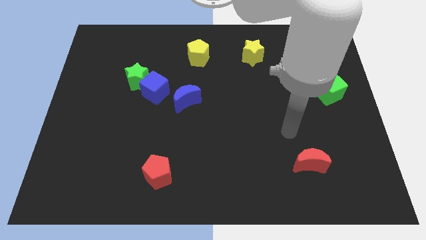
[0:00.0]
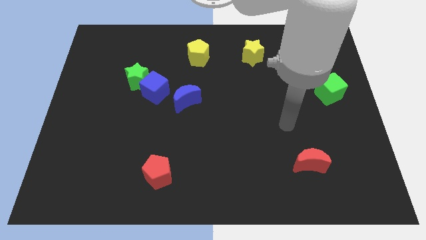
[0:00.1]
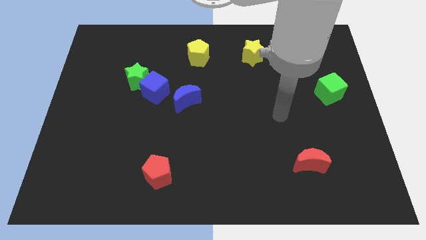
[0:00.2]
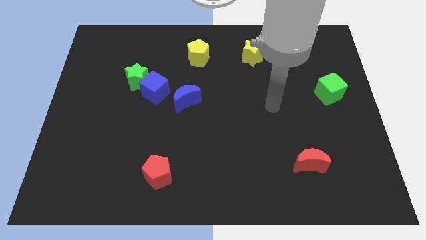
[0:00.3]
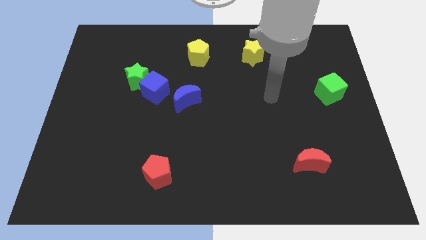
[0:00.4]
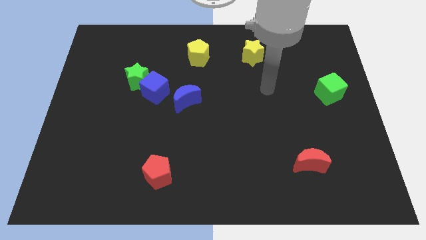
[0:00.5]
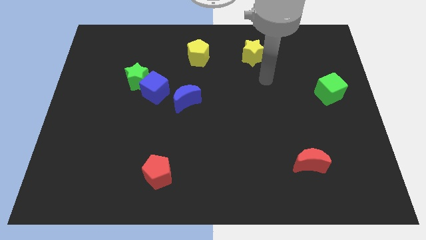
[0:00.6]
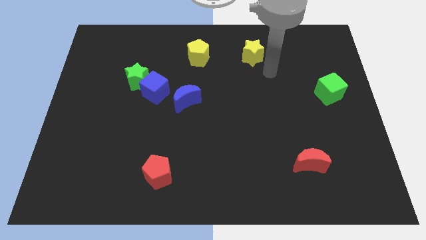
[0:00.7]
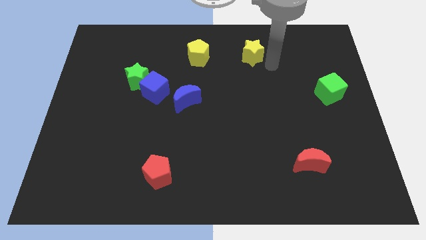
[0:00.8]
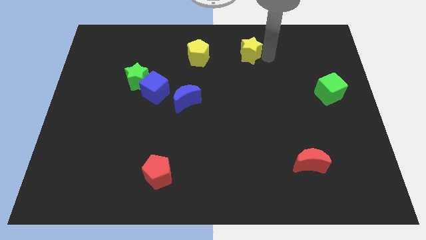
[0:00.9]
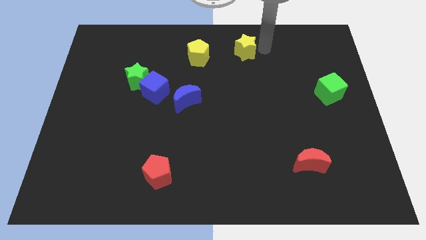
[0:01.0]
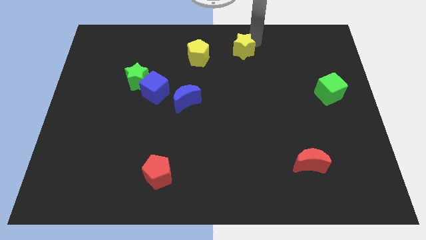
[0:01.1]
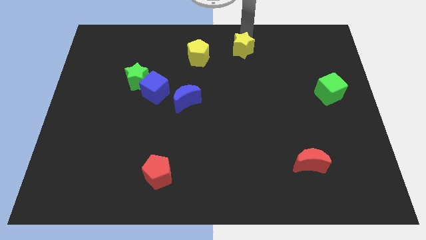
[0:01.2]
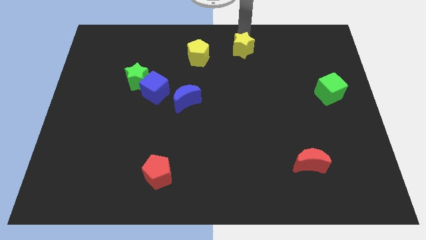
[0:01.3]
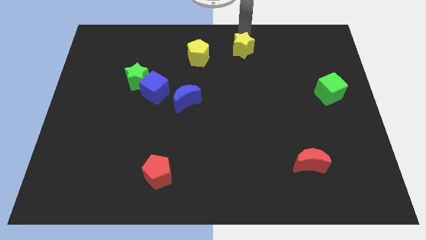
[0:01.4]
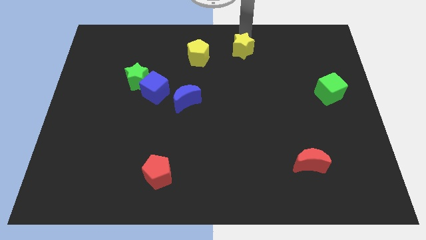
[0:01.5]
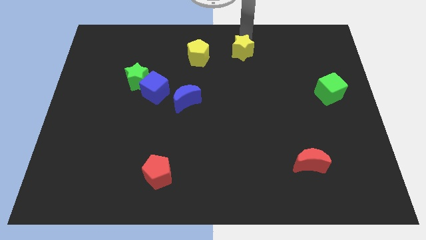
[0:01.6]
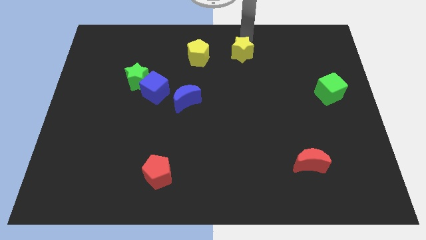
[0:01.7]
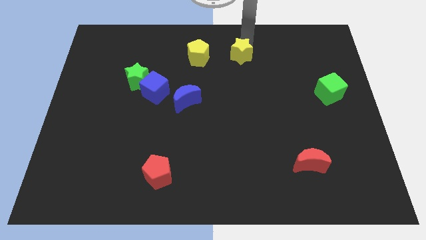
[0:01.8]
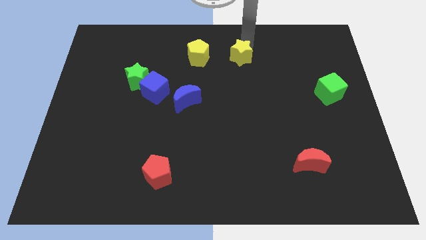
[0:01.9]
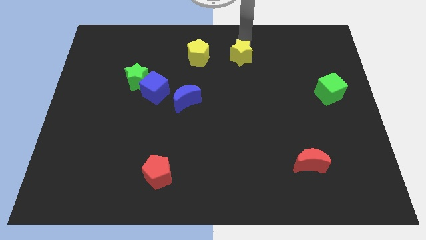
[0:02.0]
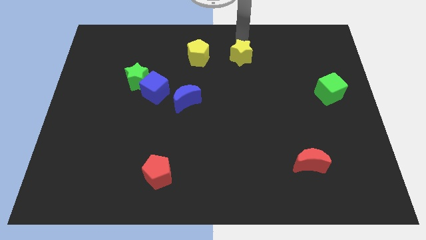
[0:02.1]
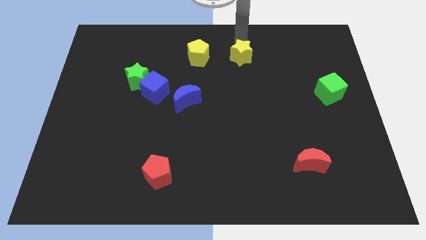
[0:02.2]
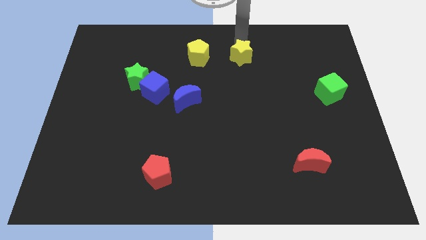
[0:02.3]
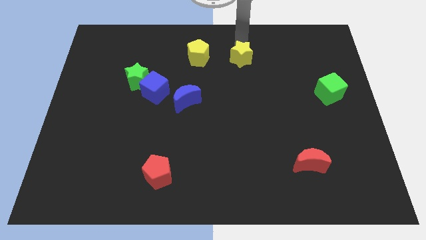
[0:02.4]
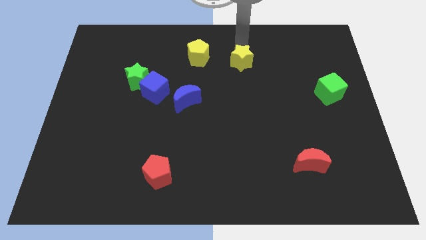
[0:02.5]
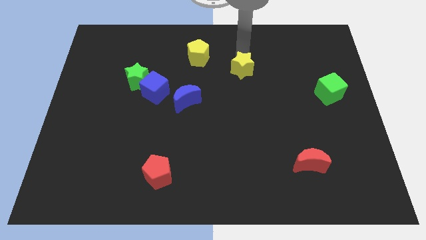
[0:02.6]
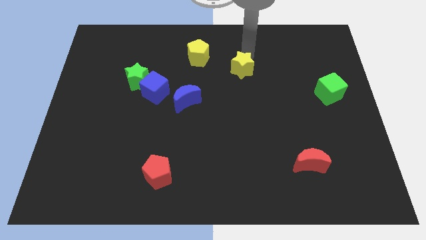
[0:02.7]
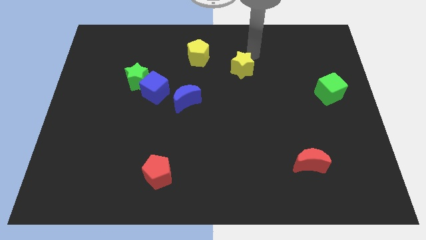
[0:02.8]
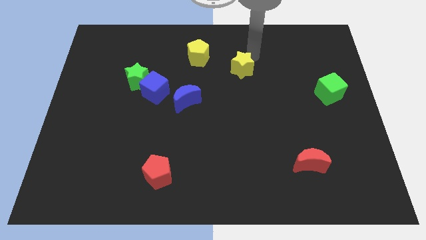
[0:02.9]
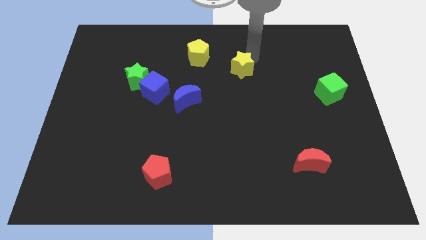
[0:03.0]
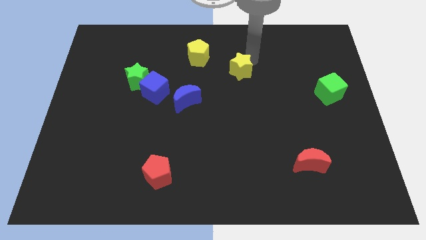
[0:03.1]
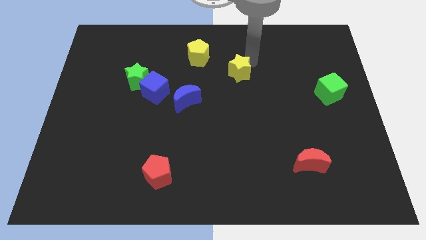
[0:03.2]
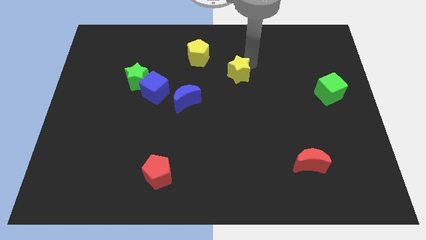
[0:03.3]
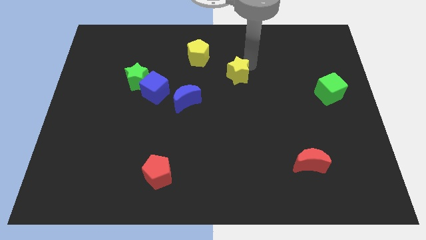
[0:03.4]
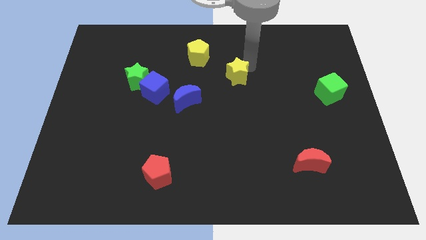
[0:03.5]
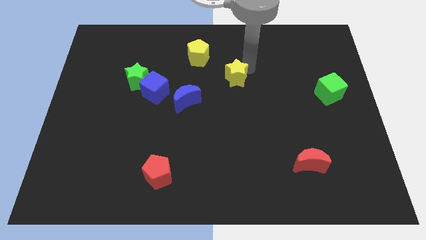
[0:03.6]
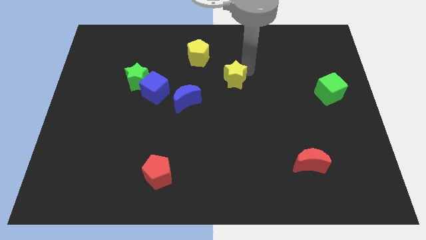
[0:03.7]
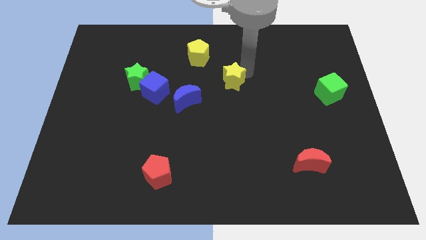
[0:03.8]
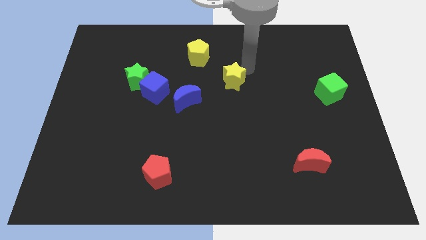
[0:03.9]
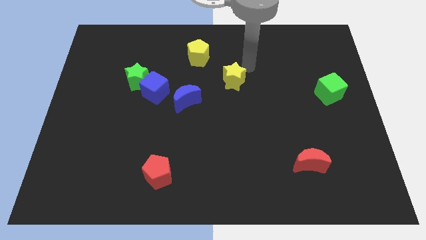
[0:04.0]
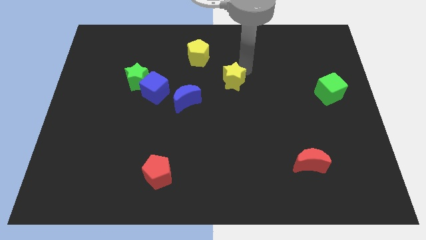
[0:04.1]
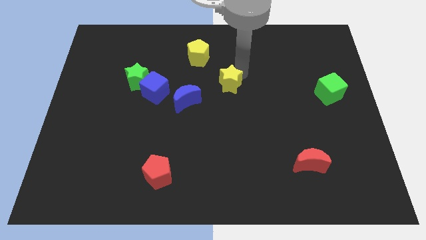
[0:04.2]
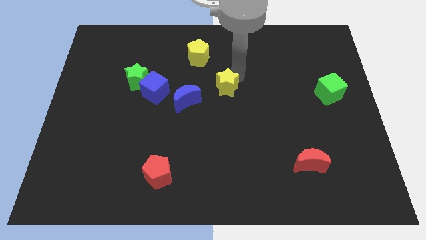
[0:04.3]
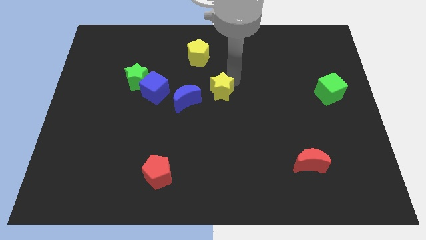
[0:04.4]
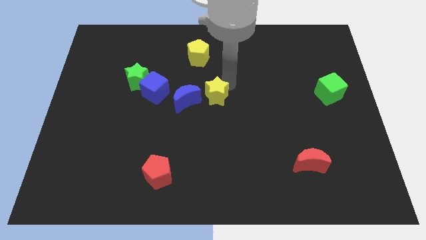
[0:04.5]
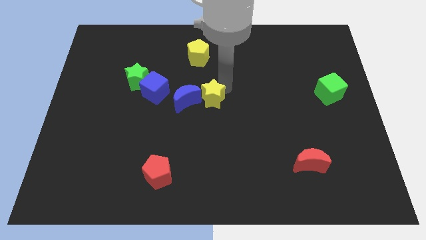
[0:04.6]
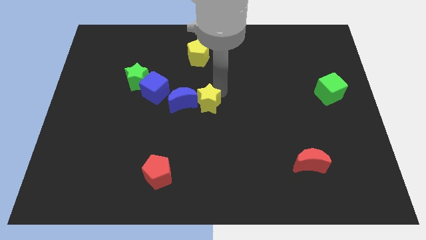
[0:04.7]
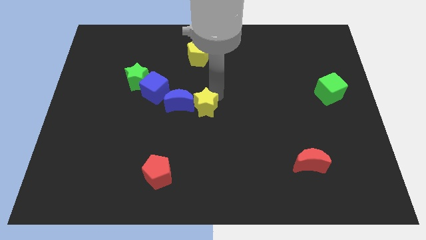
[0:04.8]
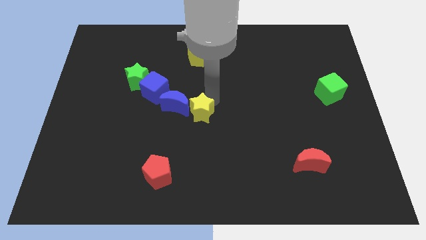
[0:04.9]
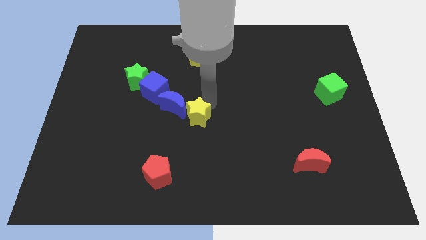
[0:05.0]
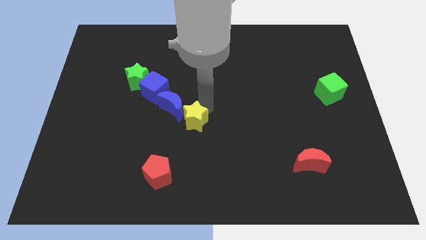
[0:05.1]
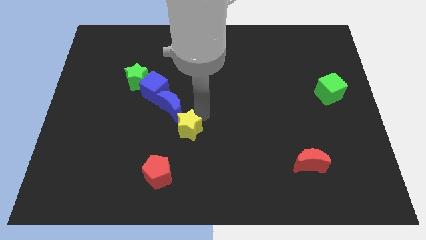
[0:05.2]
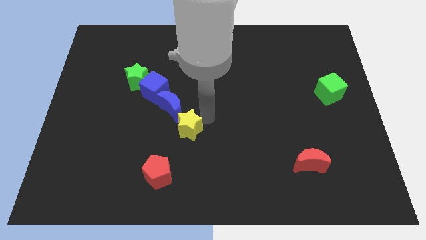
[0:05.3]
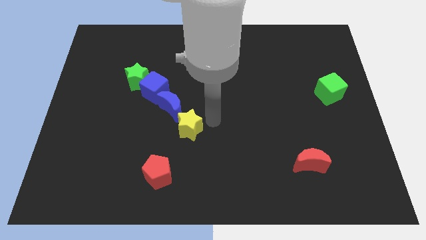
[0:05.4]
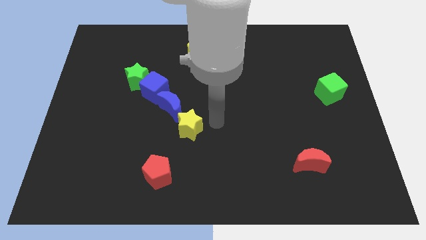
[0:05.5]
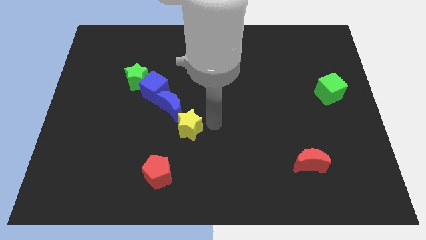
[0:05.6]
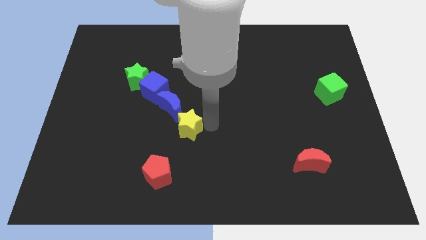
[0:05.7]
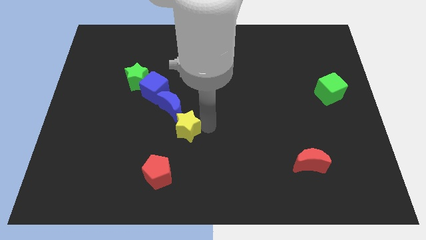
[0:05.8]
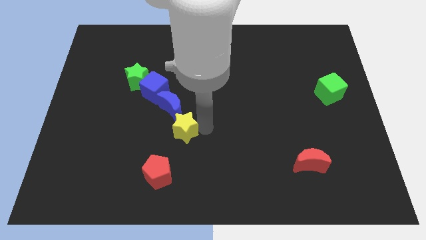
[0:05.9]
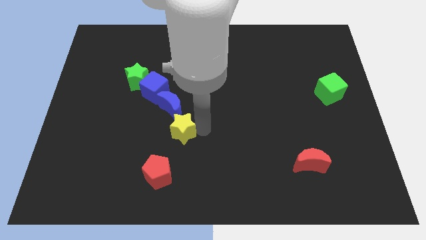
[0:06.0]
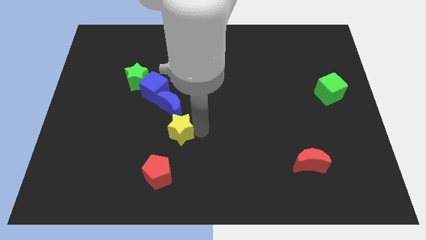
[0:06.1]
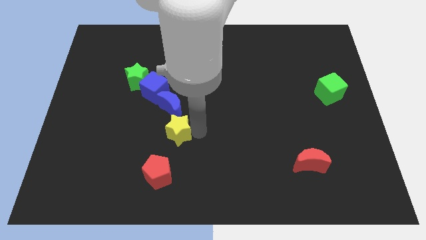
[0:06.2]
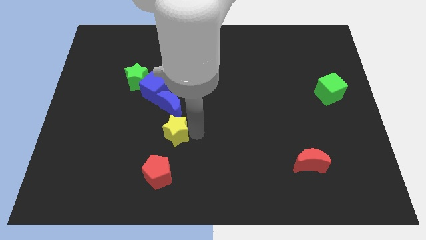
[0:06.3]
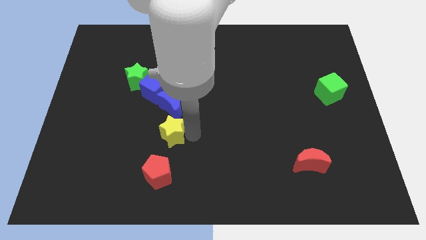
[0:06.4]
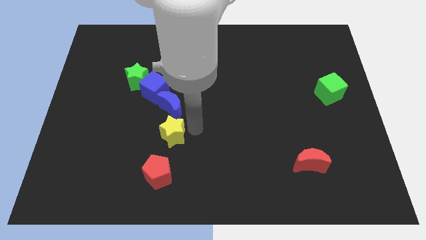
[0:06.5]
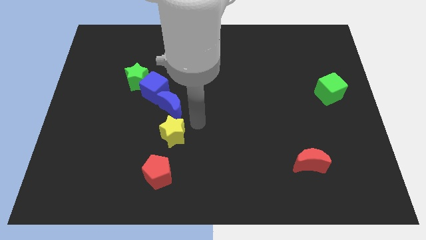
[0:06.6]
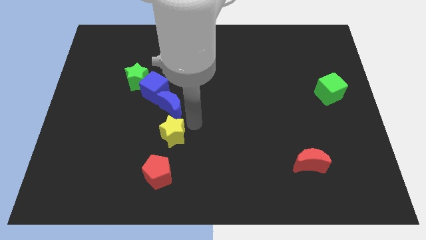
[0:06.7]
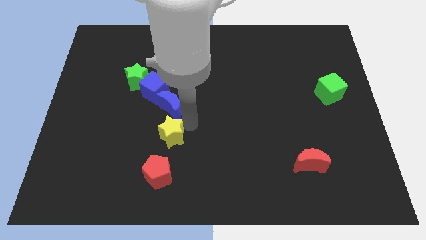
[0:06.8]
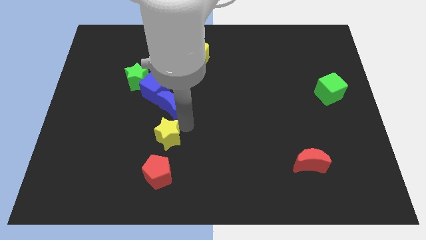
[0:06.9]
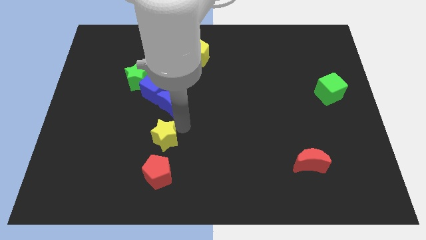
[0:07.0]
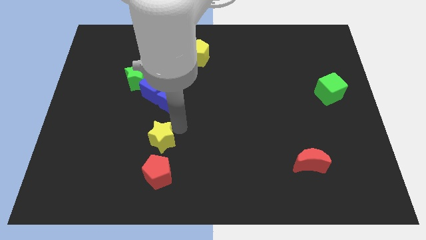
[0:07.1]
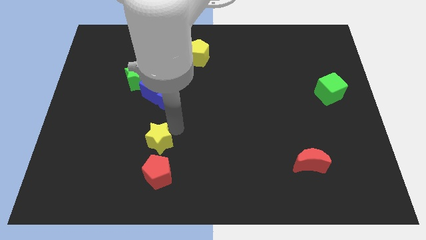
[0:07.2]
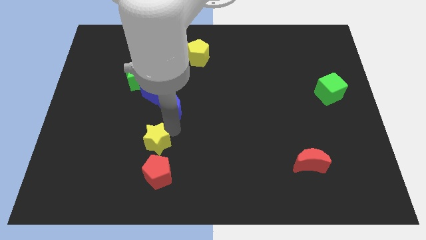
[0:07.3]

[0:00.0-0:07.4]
slide the yellow star to the top left side of the red pentagon
